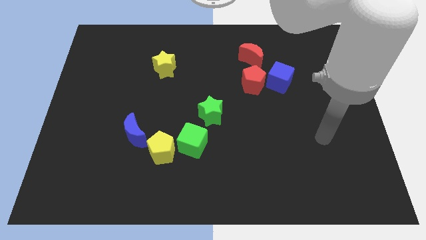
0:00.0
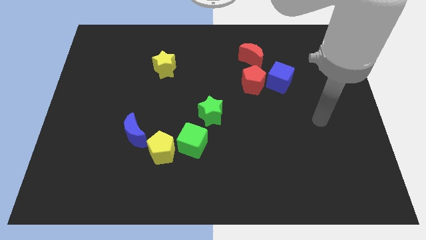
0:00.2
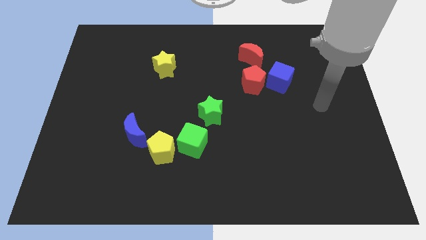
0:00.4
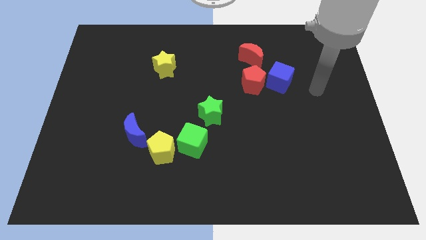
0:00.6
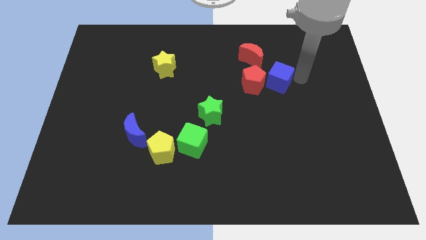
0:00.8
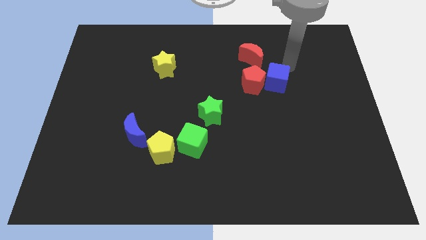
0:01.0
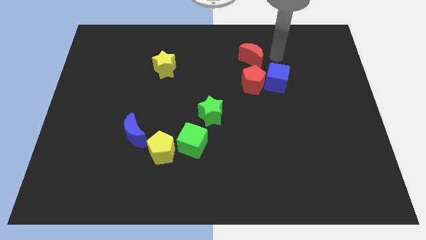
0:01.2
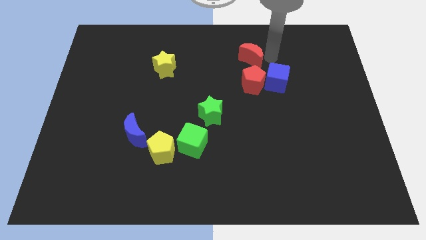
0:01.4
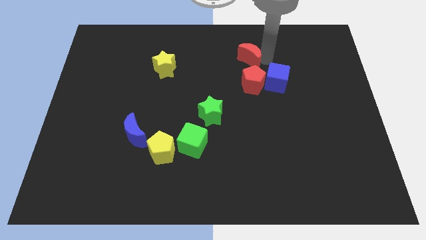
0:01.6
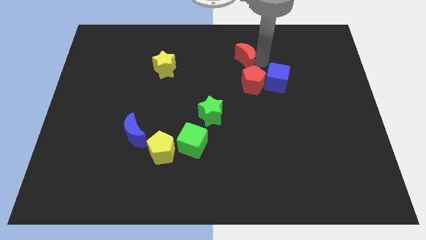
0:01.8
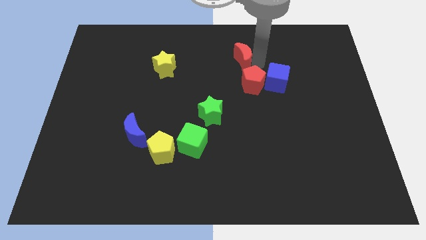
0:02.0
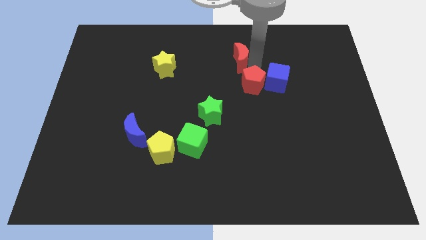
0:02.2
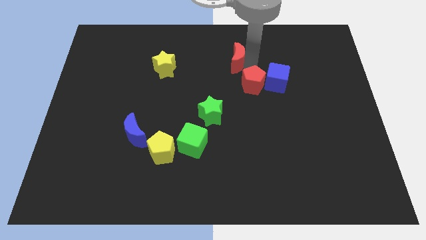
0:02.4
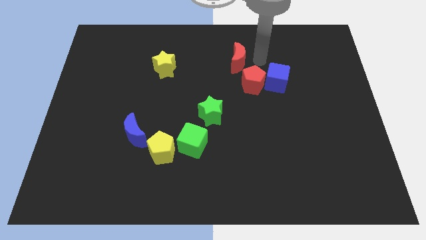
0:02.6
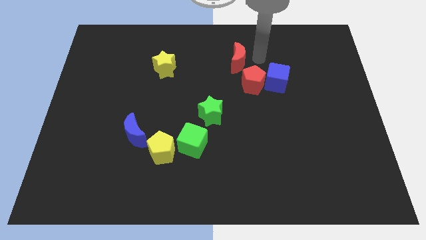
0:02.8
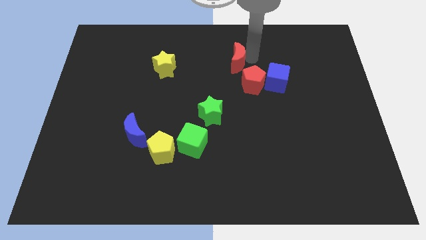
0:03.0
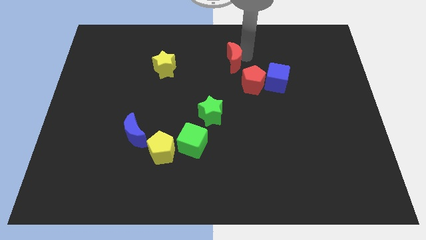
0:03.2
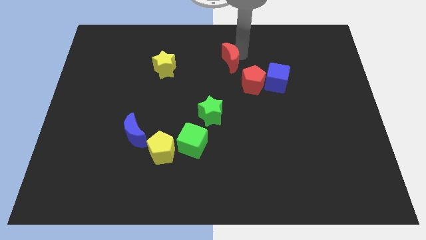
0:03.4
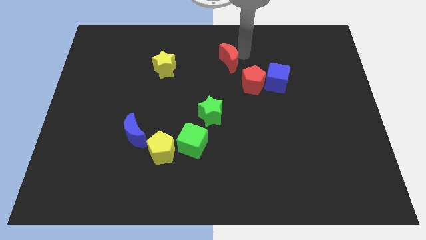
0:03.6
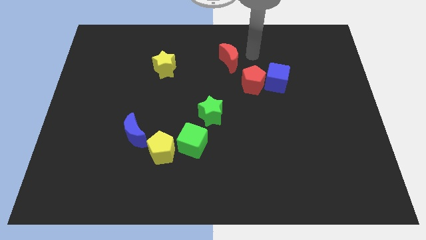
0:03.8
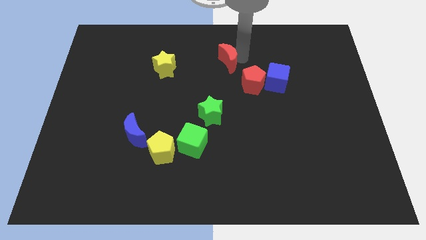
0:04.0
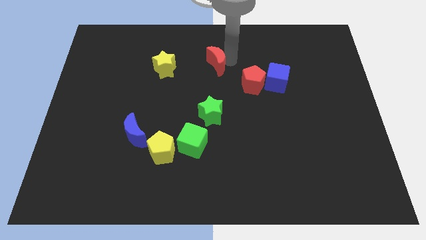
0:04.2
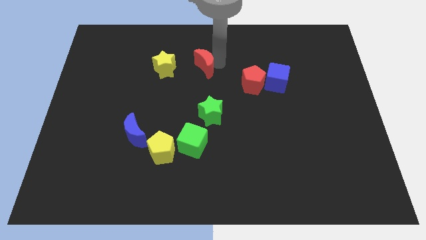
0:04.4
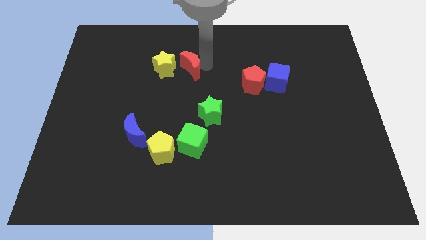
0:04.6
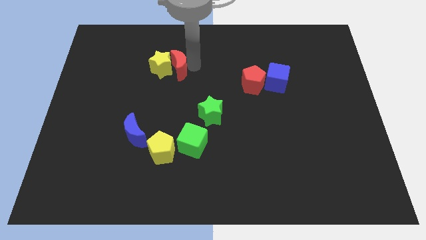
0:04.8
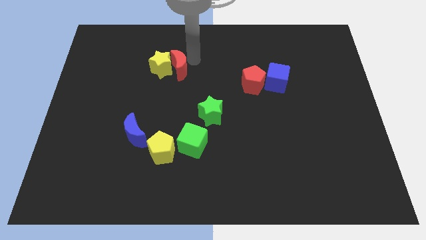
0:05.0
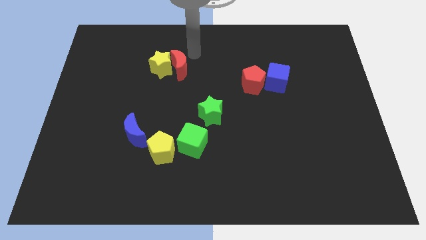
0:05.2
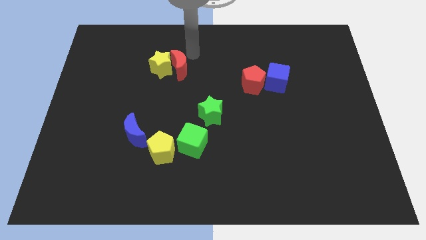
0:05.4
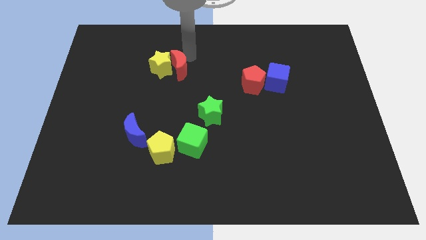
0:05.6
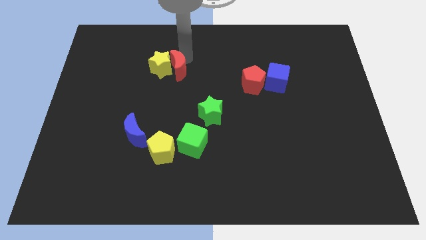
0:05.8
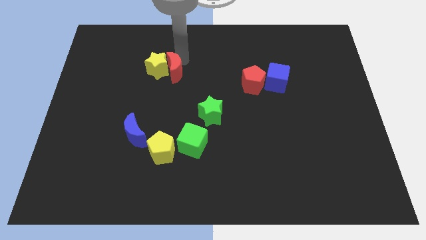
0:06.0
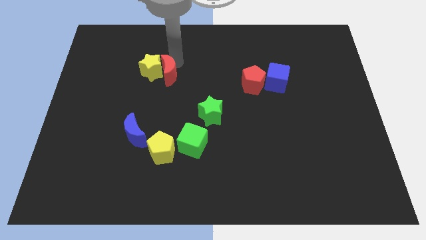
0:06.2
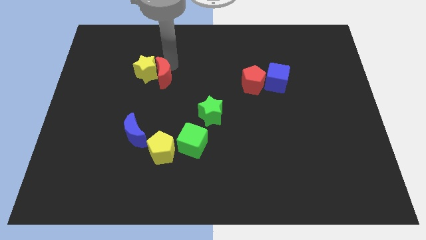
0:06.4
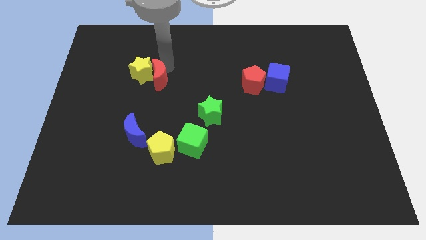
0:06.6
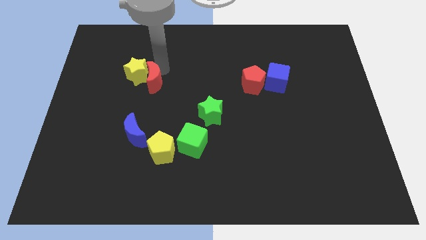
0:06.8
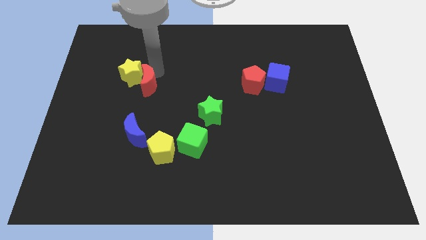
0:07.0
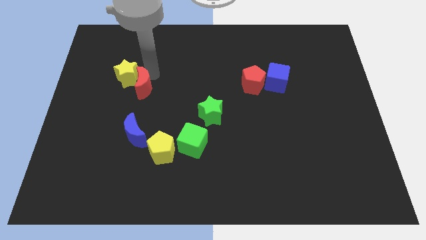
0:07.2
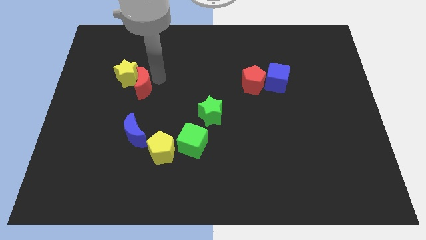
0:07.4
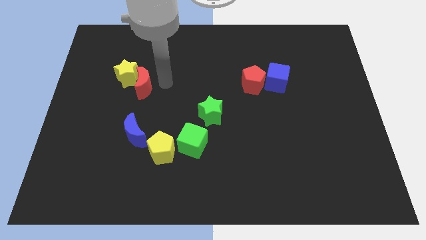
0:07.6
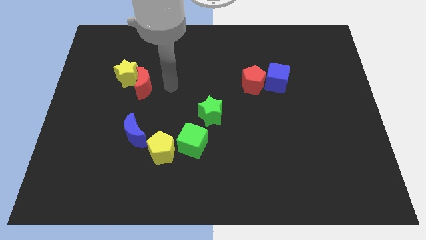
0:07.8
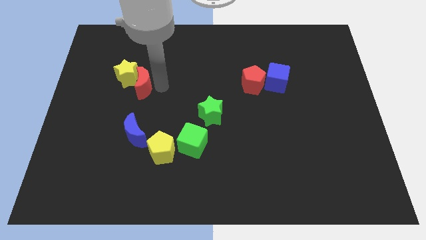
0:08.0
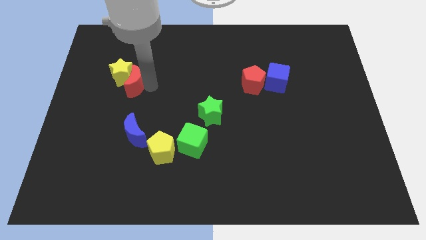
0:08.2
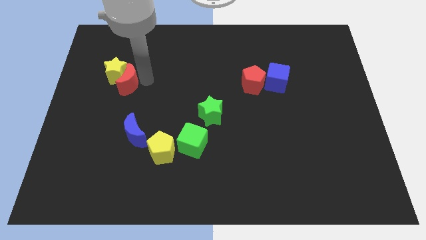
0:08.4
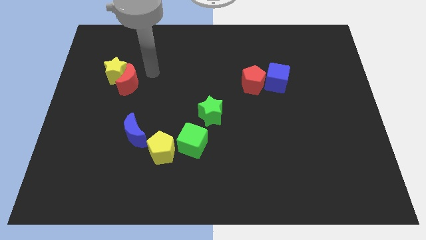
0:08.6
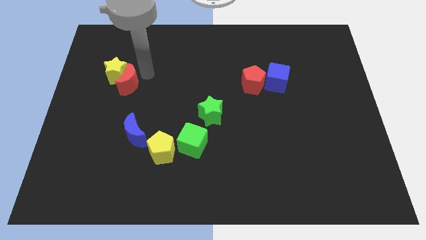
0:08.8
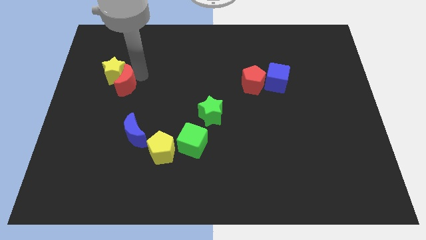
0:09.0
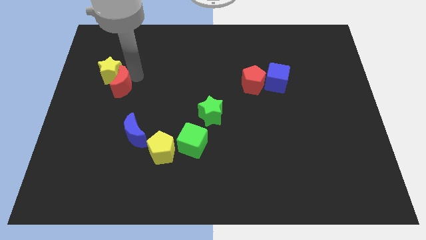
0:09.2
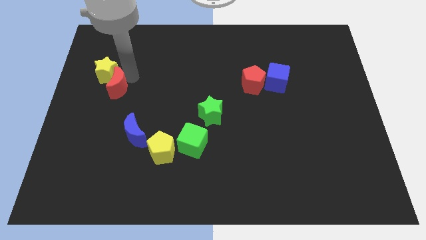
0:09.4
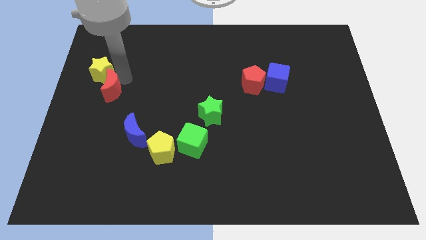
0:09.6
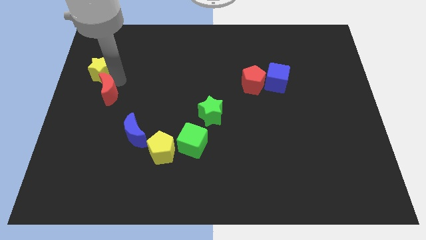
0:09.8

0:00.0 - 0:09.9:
move the red moon to the left side of the board

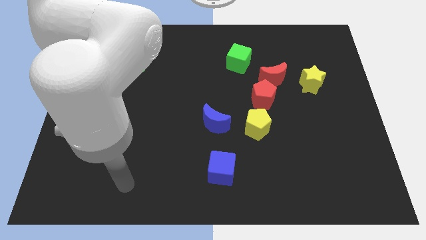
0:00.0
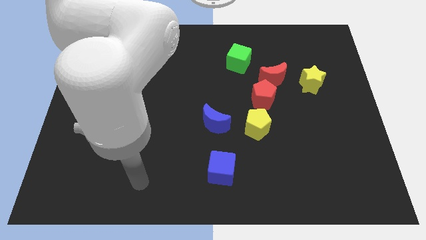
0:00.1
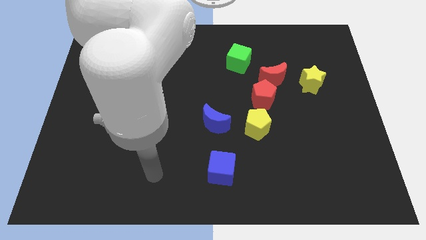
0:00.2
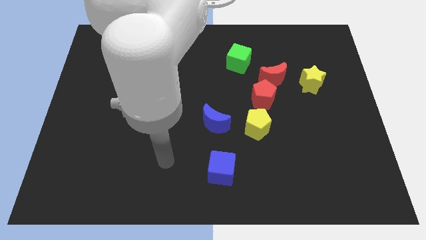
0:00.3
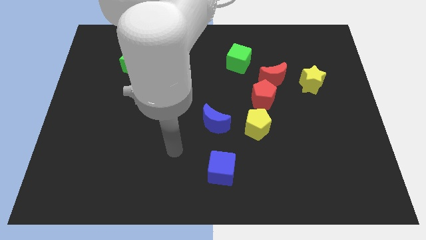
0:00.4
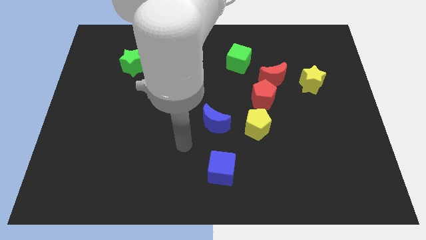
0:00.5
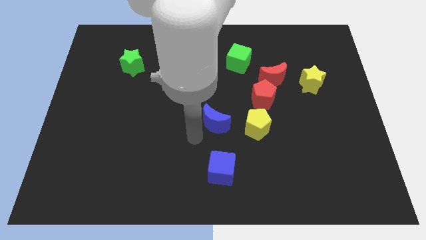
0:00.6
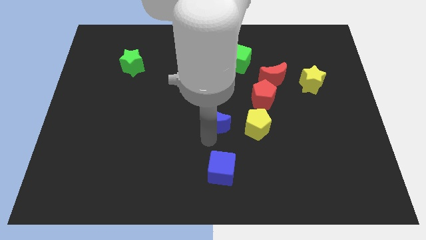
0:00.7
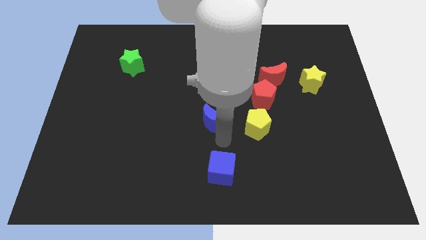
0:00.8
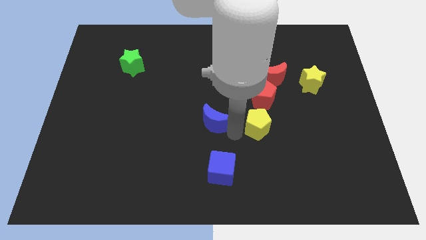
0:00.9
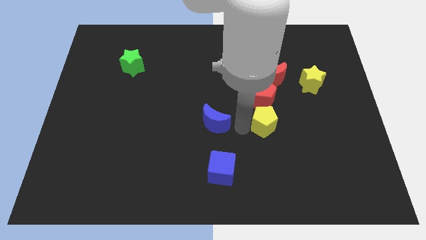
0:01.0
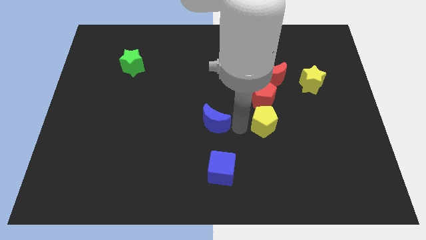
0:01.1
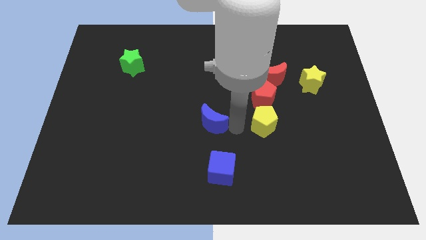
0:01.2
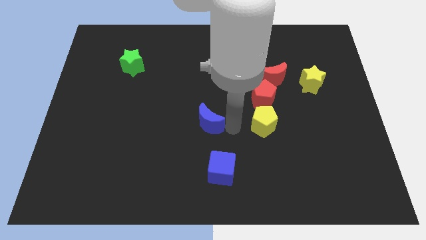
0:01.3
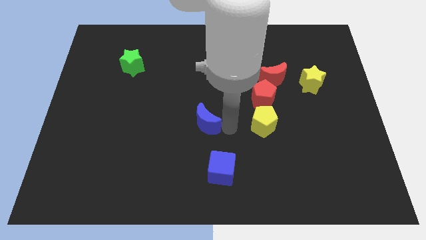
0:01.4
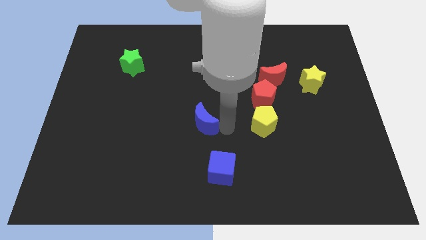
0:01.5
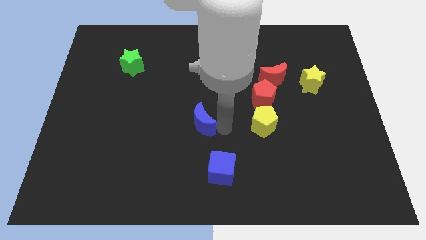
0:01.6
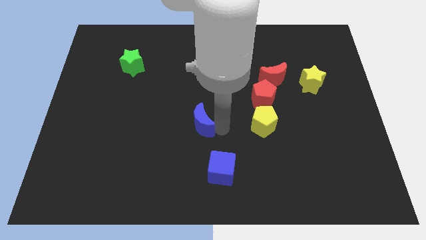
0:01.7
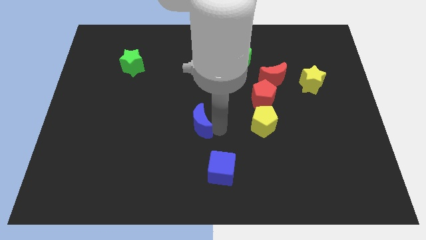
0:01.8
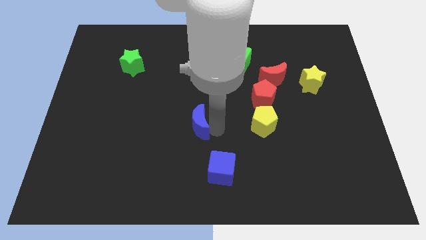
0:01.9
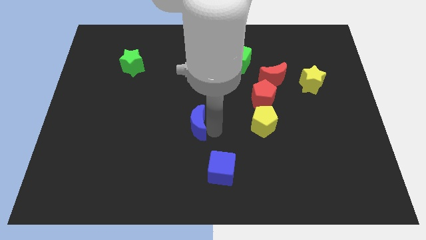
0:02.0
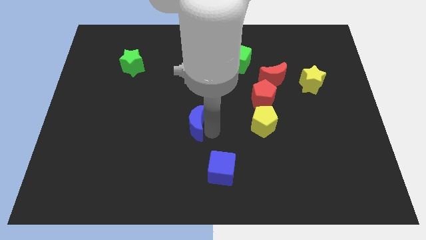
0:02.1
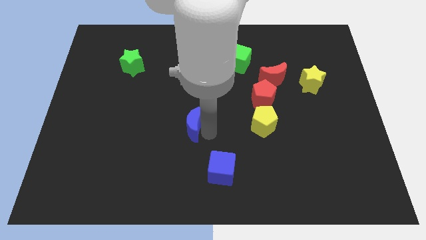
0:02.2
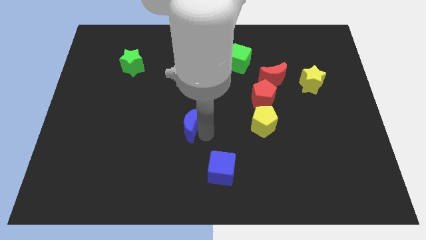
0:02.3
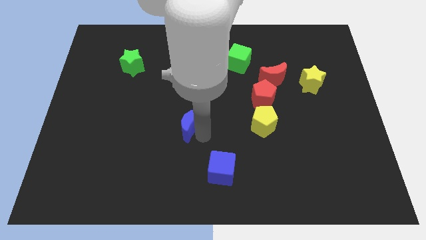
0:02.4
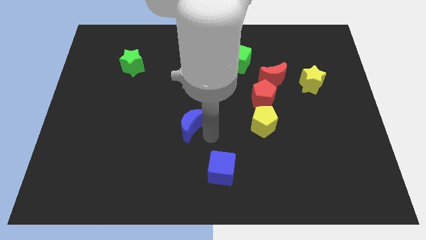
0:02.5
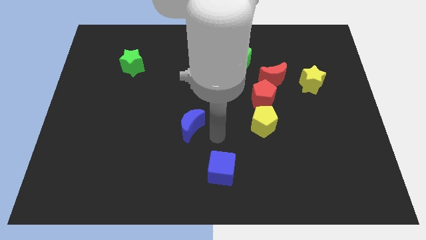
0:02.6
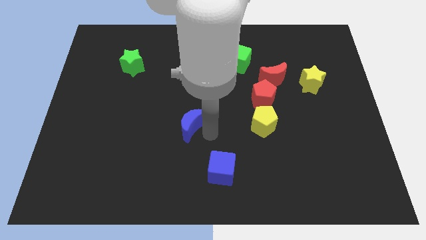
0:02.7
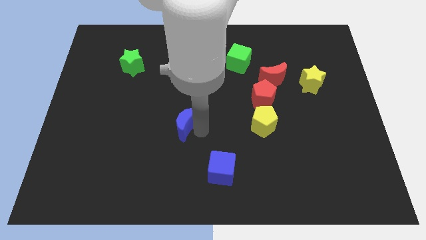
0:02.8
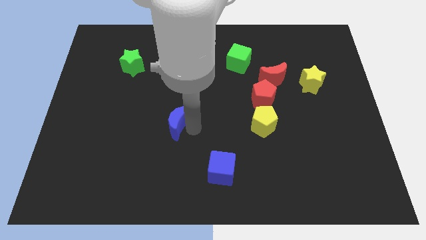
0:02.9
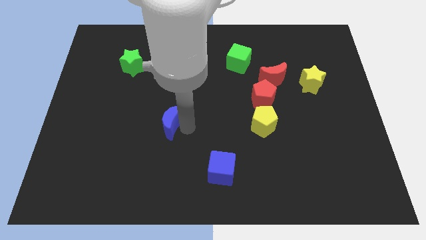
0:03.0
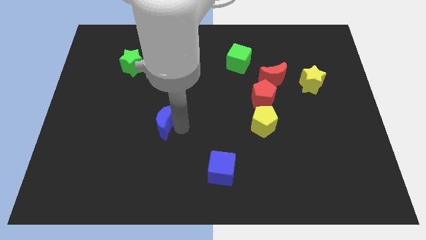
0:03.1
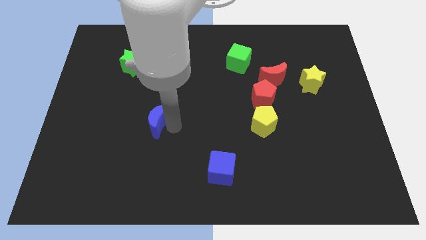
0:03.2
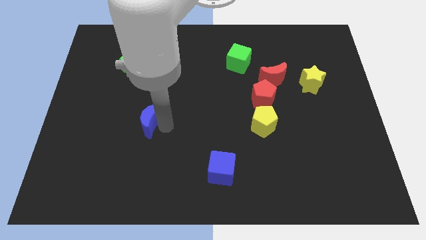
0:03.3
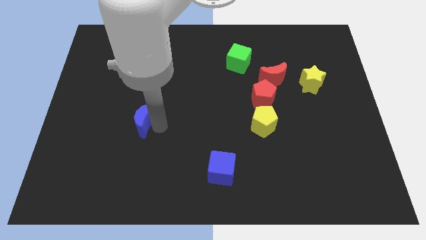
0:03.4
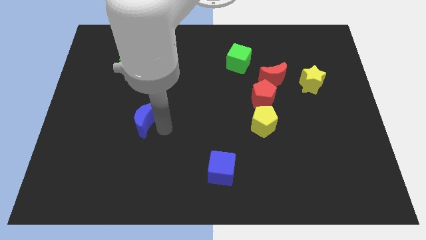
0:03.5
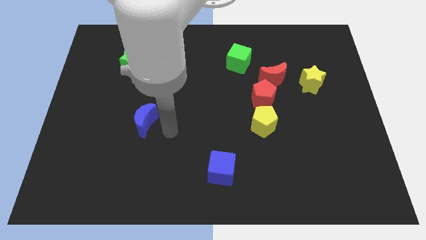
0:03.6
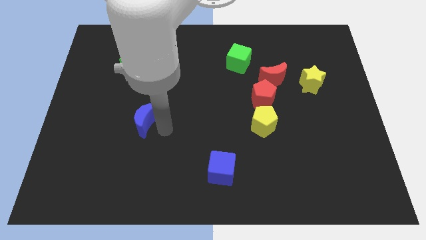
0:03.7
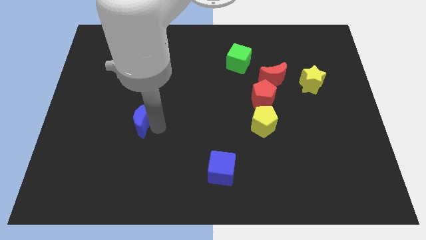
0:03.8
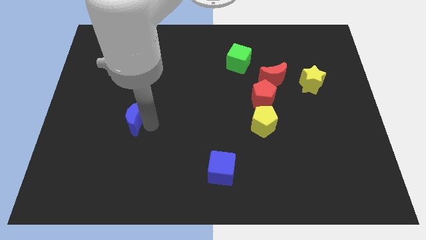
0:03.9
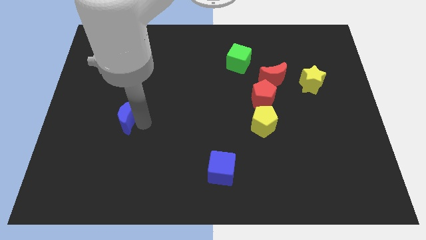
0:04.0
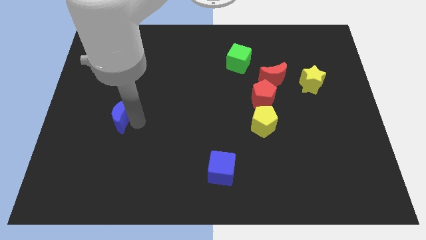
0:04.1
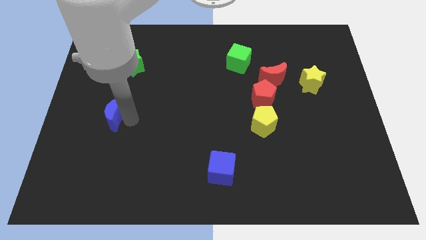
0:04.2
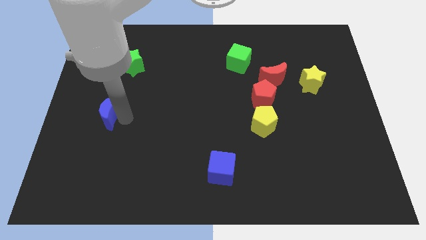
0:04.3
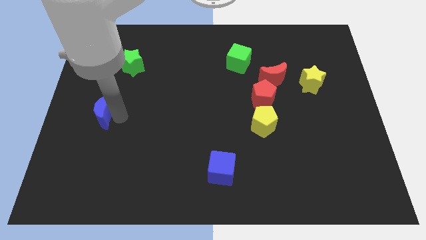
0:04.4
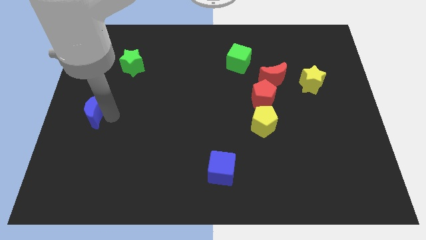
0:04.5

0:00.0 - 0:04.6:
put the blue moon to the left side of the board
